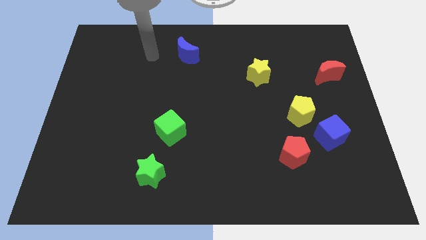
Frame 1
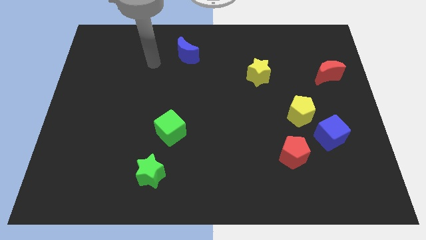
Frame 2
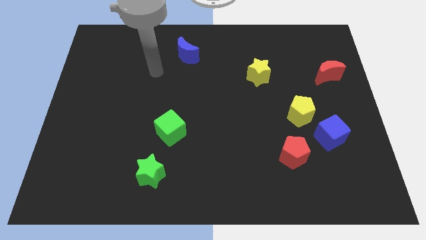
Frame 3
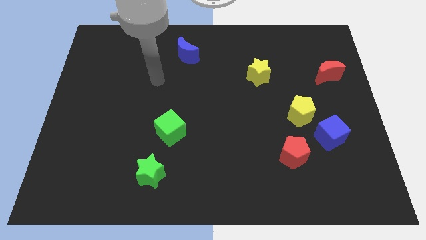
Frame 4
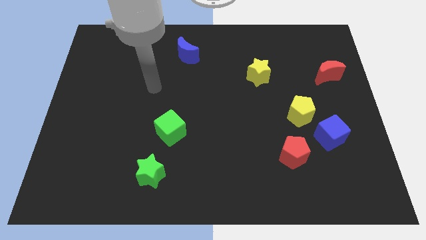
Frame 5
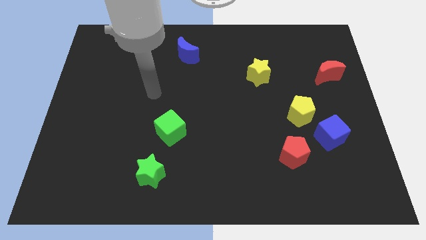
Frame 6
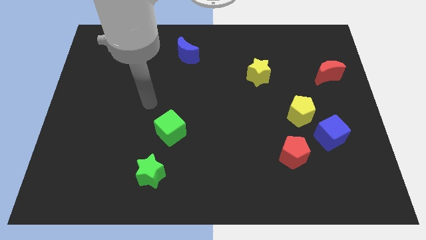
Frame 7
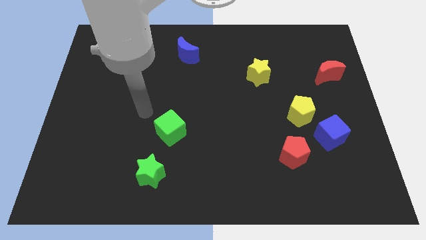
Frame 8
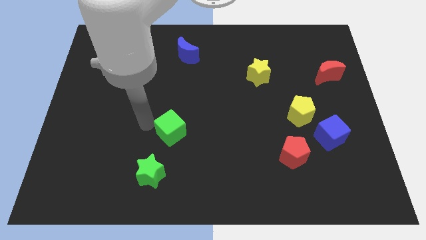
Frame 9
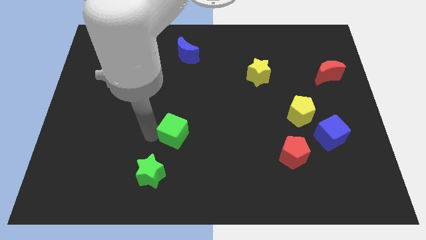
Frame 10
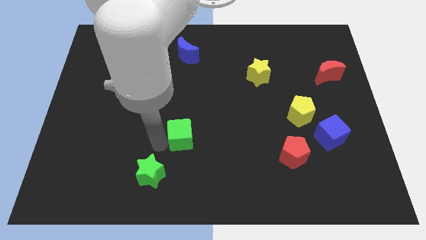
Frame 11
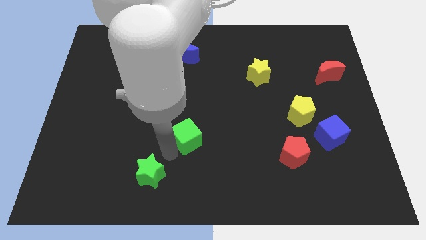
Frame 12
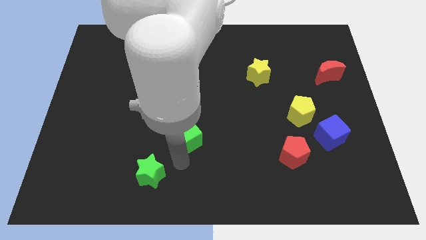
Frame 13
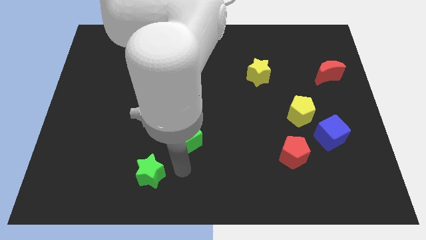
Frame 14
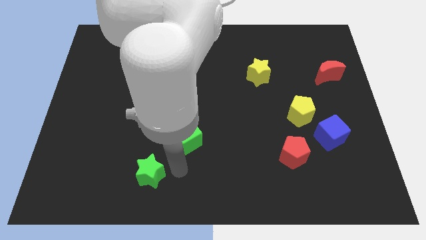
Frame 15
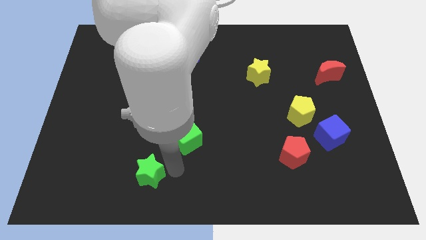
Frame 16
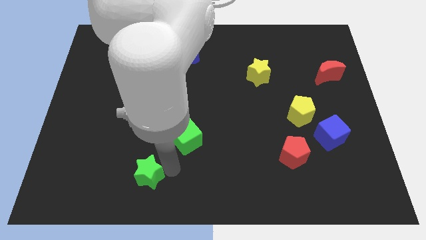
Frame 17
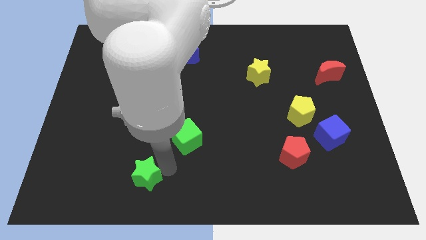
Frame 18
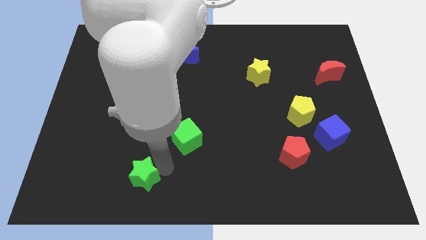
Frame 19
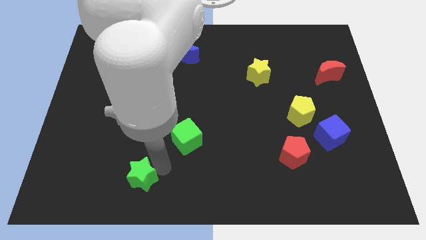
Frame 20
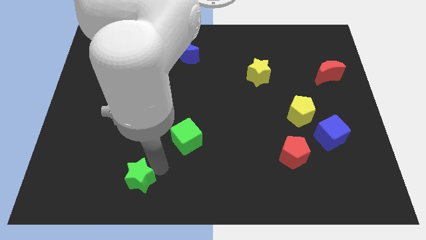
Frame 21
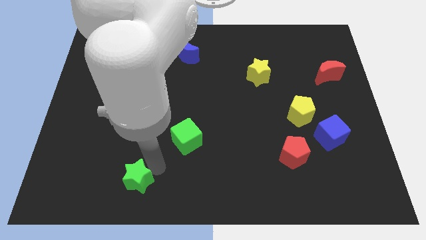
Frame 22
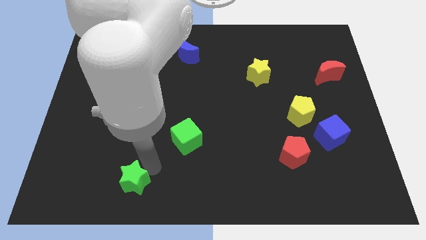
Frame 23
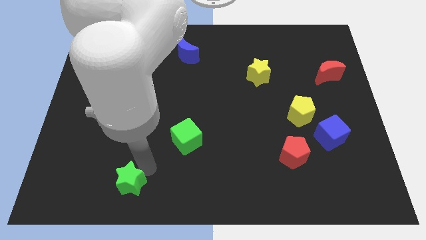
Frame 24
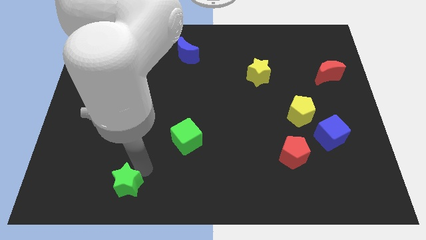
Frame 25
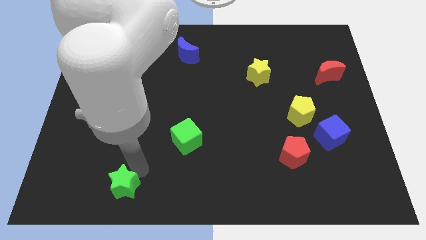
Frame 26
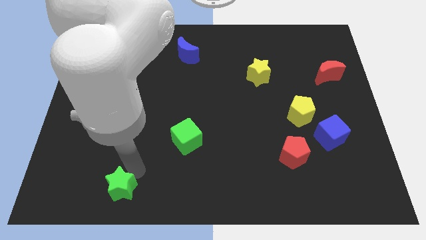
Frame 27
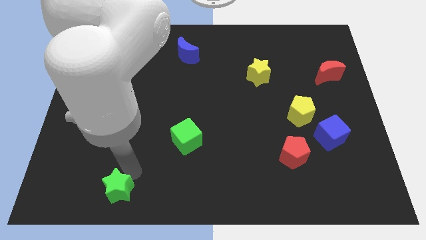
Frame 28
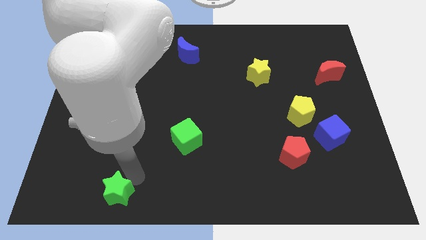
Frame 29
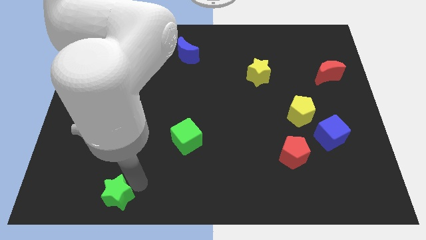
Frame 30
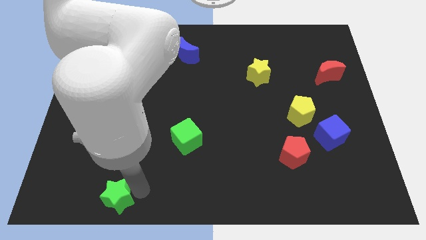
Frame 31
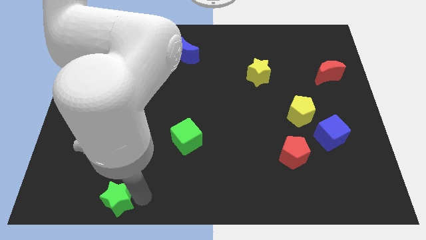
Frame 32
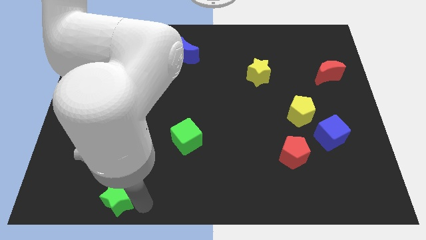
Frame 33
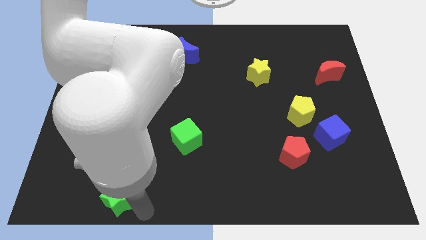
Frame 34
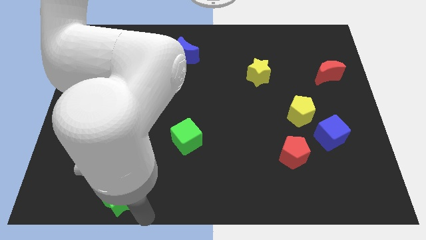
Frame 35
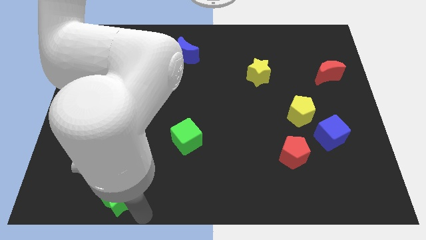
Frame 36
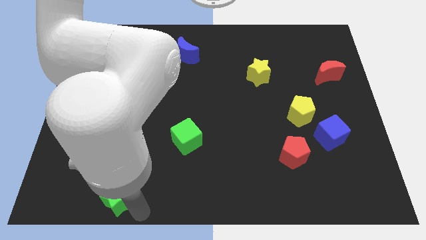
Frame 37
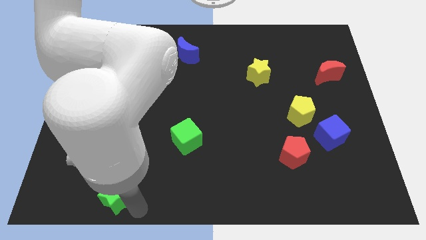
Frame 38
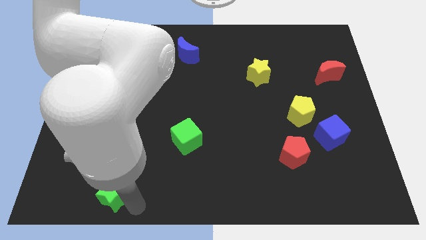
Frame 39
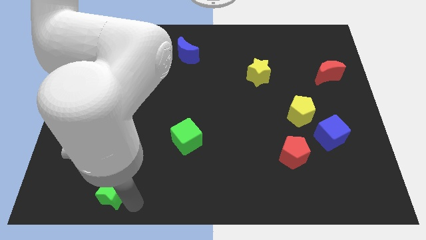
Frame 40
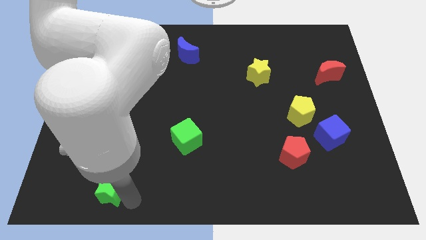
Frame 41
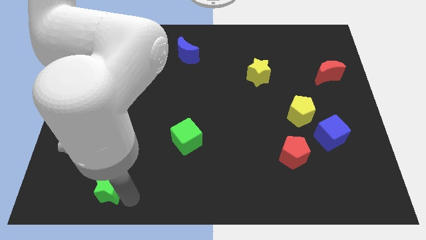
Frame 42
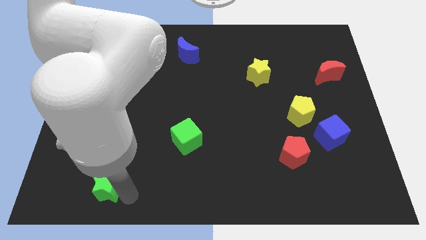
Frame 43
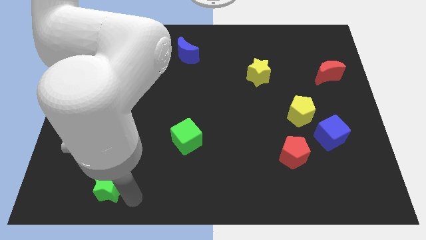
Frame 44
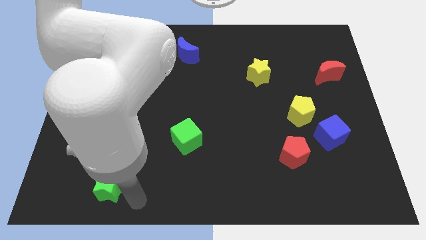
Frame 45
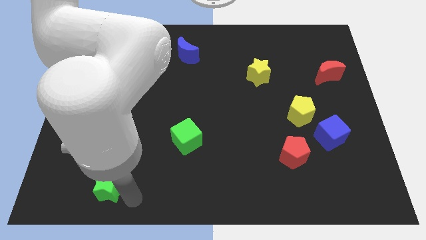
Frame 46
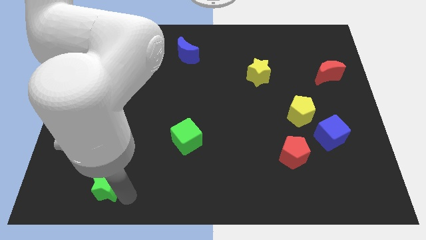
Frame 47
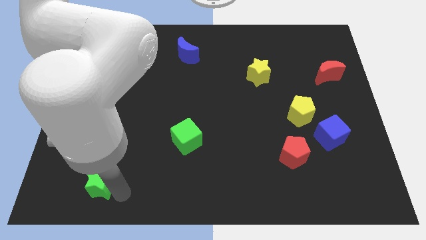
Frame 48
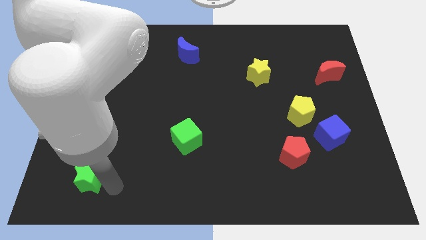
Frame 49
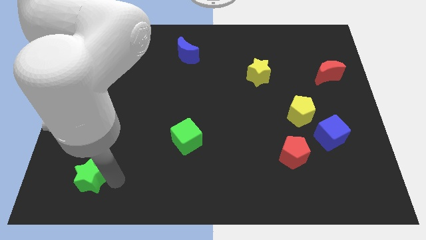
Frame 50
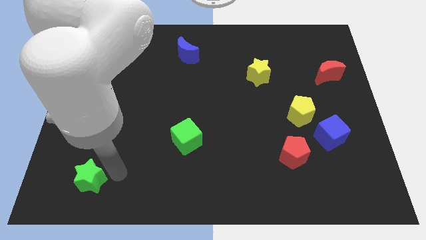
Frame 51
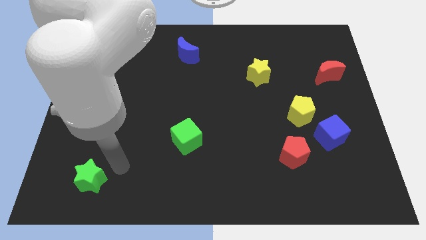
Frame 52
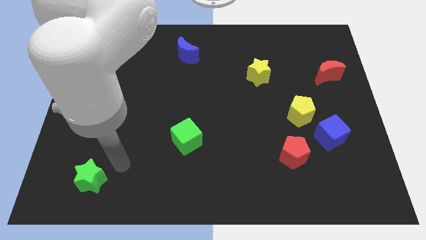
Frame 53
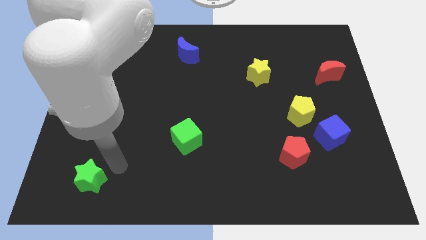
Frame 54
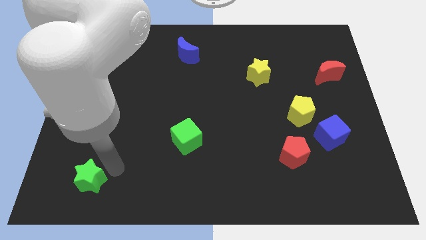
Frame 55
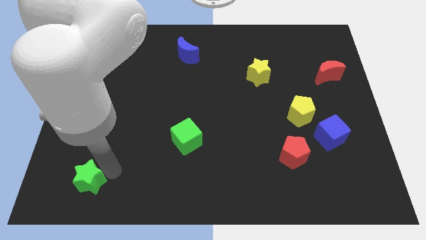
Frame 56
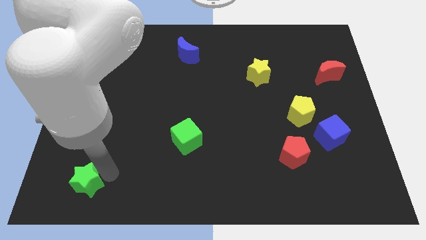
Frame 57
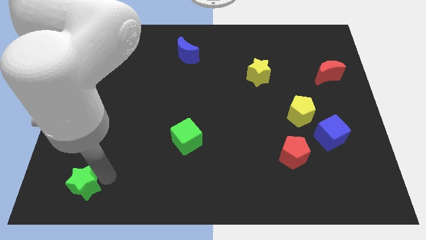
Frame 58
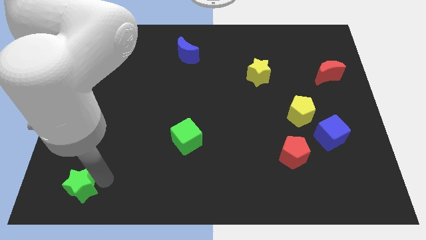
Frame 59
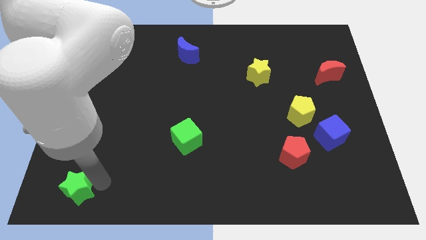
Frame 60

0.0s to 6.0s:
push the green star to the bottom left
